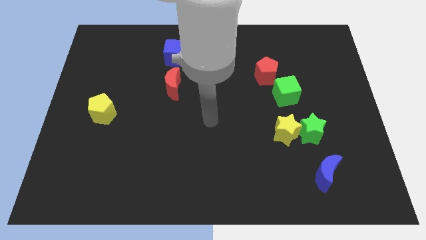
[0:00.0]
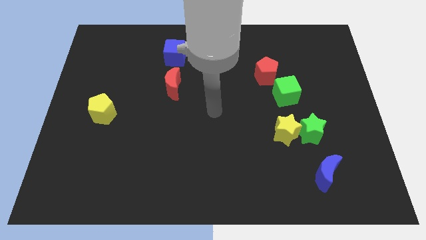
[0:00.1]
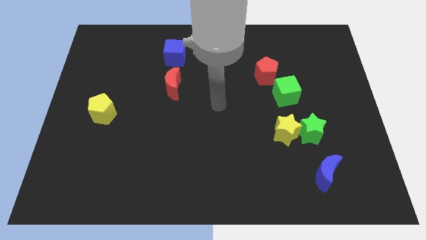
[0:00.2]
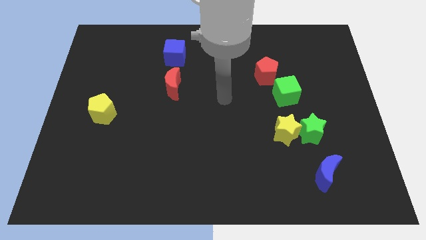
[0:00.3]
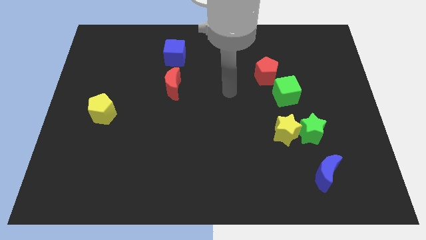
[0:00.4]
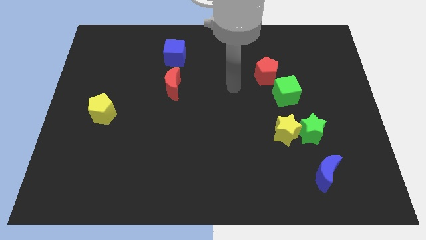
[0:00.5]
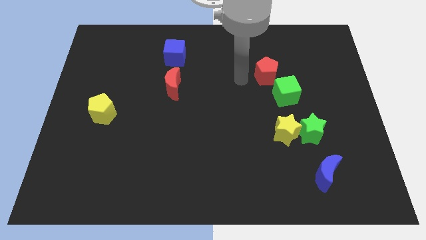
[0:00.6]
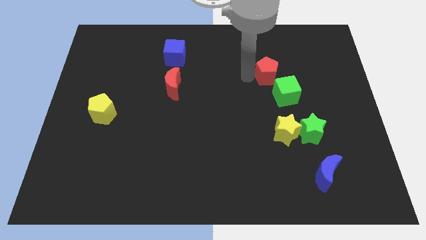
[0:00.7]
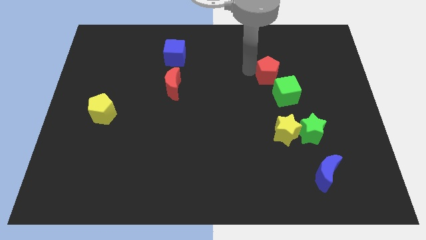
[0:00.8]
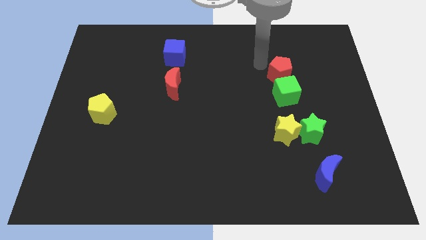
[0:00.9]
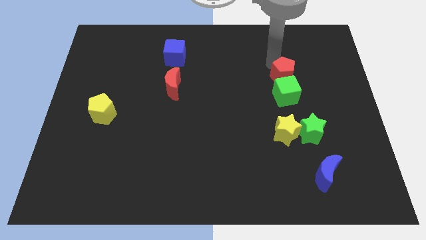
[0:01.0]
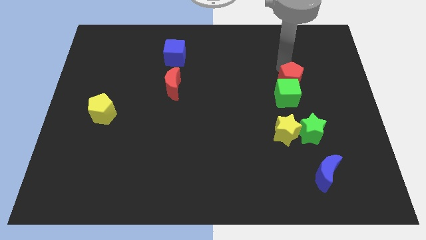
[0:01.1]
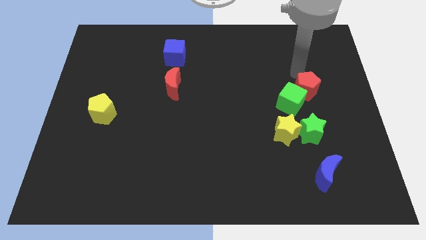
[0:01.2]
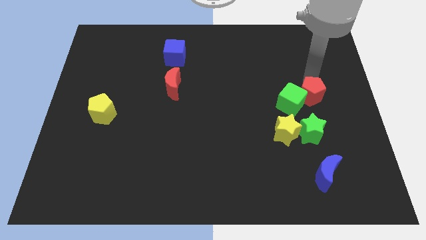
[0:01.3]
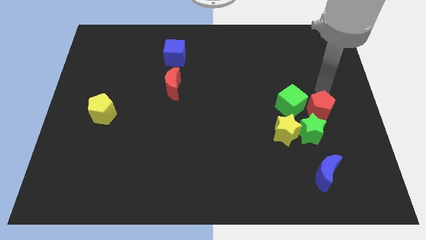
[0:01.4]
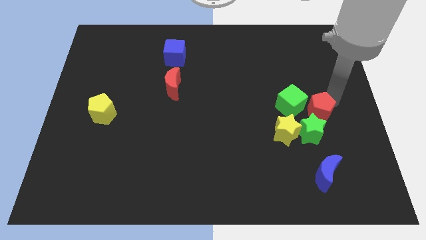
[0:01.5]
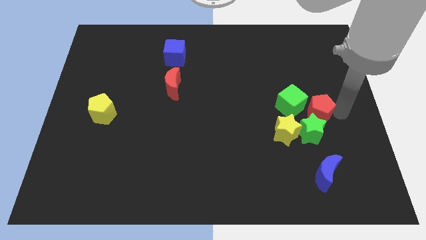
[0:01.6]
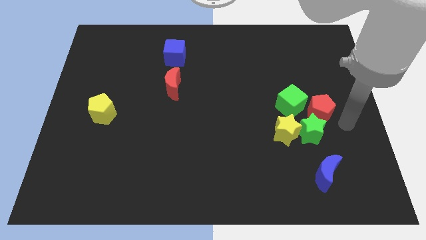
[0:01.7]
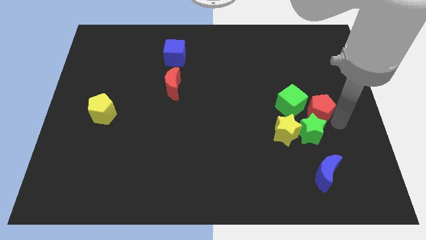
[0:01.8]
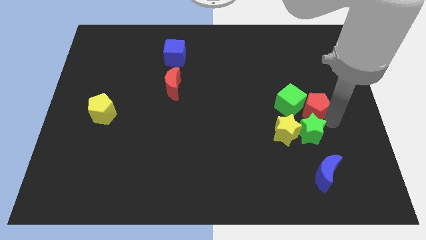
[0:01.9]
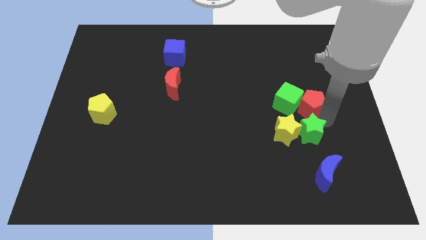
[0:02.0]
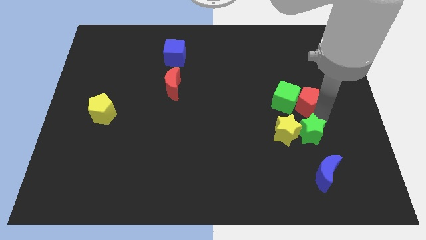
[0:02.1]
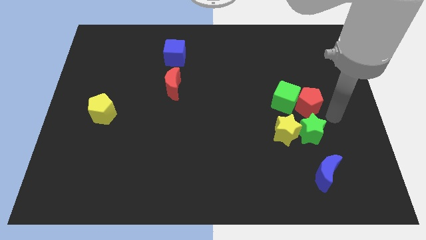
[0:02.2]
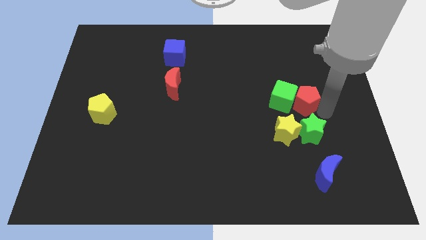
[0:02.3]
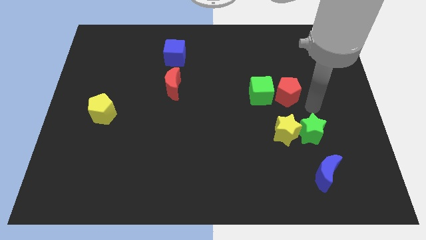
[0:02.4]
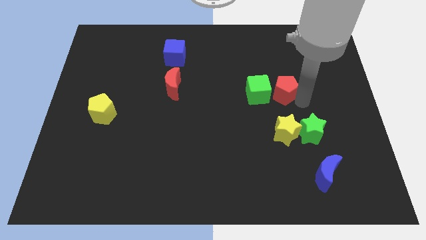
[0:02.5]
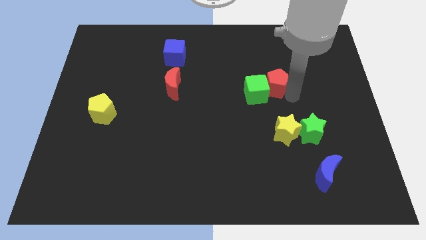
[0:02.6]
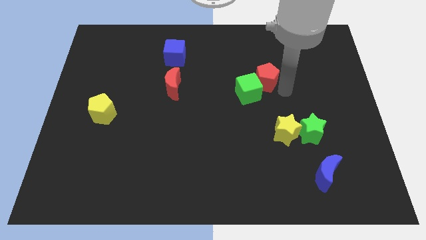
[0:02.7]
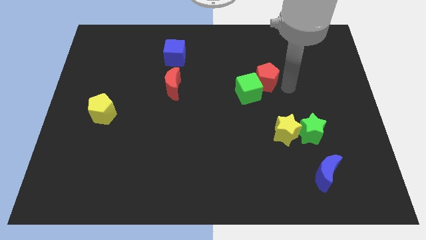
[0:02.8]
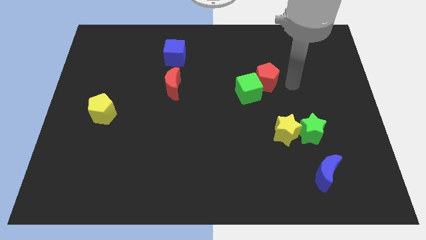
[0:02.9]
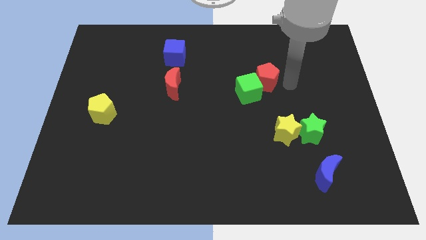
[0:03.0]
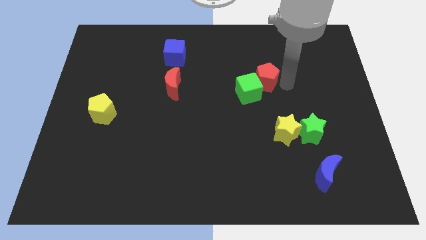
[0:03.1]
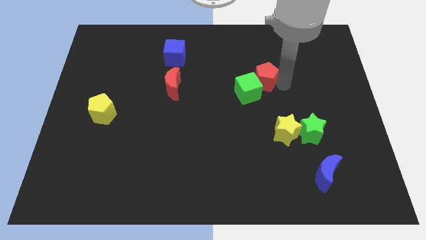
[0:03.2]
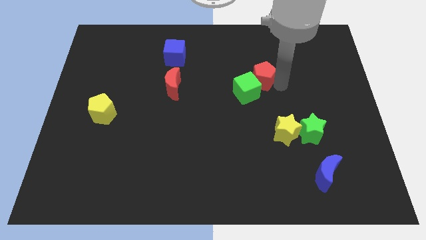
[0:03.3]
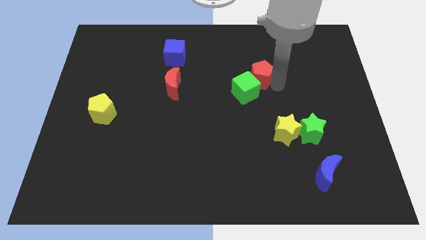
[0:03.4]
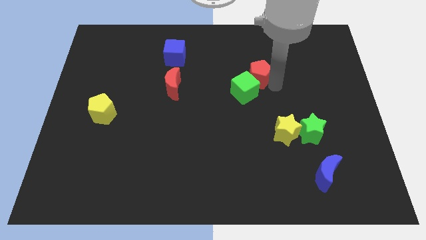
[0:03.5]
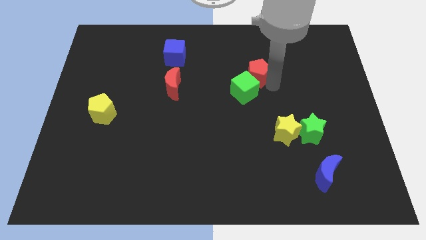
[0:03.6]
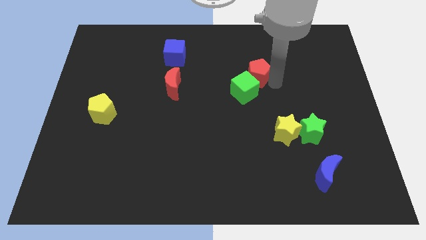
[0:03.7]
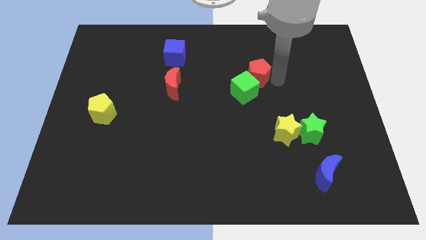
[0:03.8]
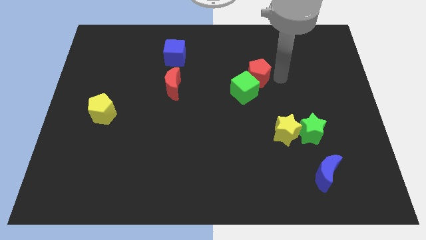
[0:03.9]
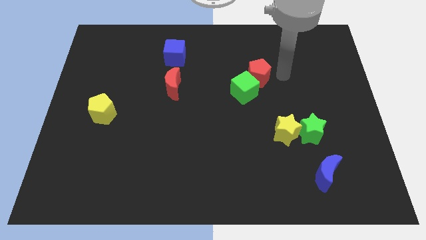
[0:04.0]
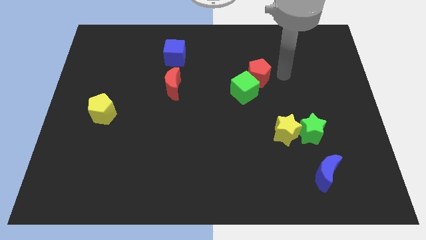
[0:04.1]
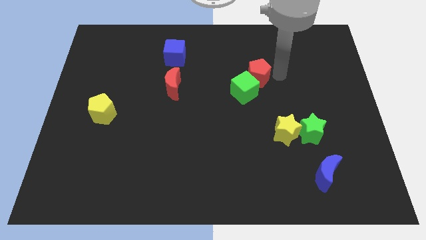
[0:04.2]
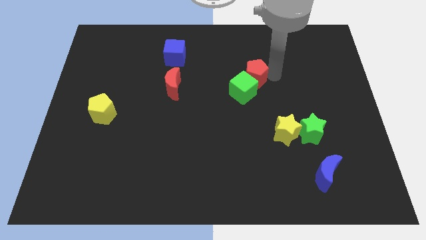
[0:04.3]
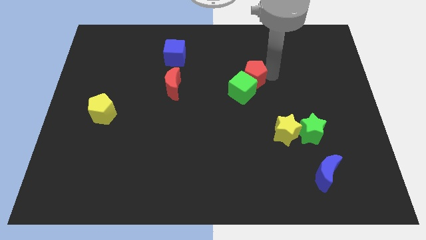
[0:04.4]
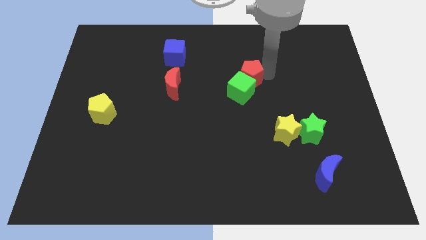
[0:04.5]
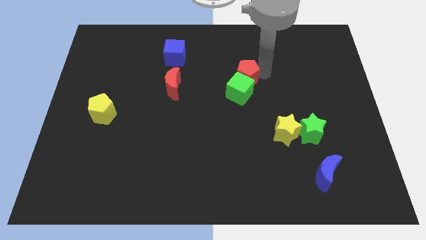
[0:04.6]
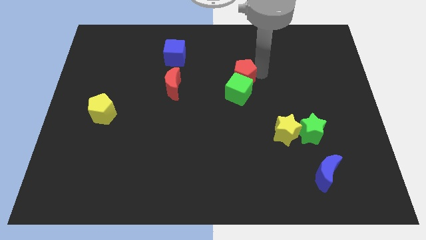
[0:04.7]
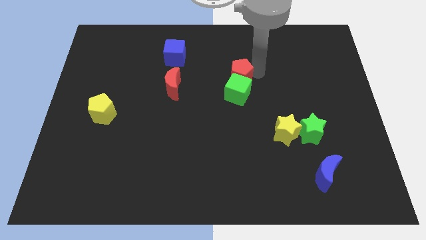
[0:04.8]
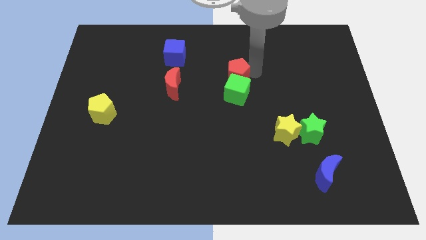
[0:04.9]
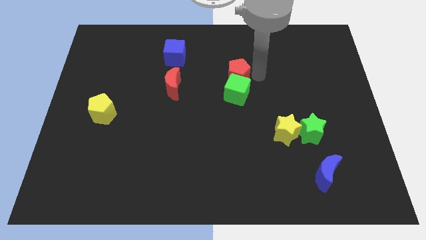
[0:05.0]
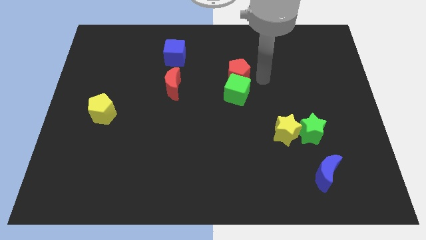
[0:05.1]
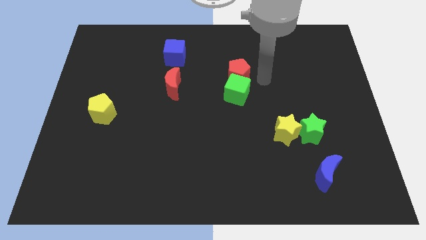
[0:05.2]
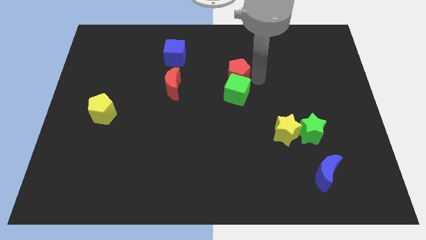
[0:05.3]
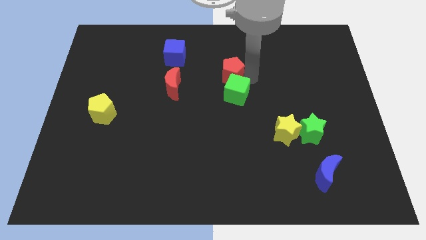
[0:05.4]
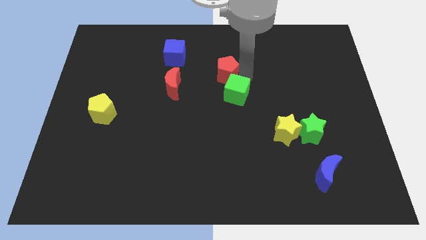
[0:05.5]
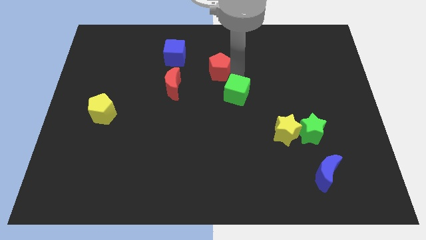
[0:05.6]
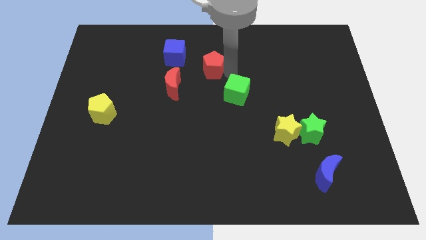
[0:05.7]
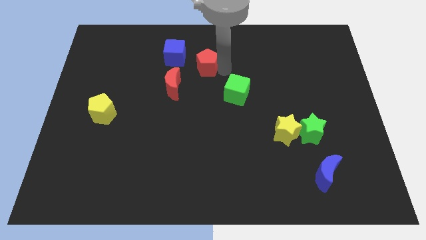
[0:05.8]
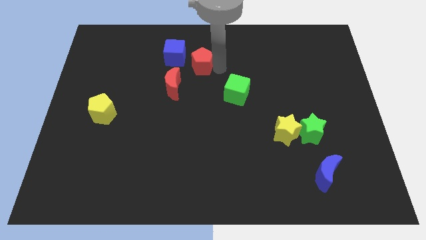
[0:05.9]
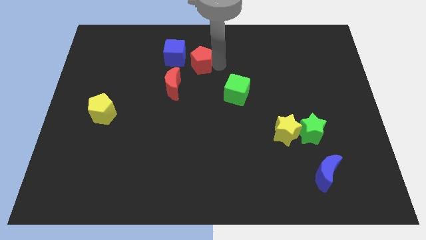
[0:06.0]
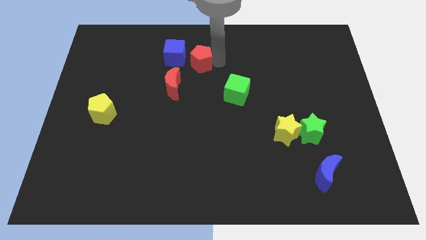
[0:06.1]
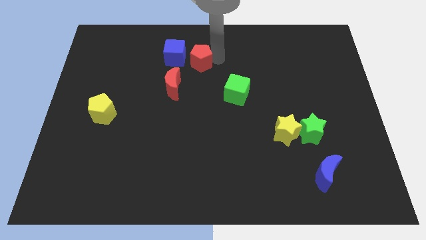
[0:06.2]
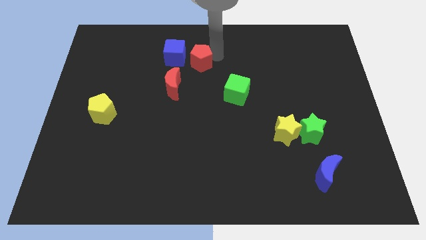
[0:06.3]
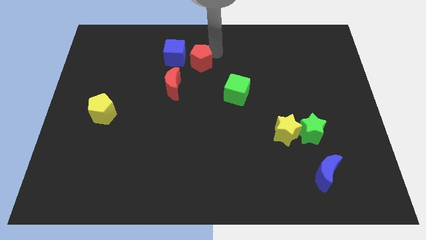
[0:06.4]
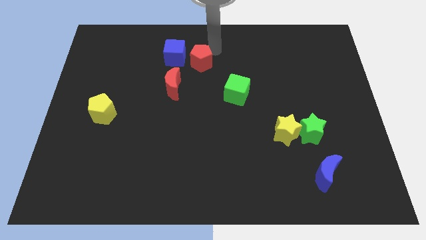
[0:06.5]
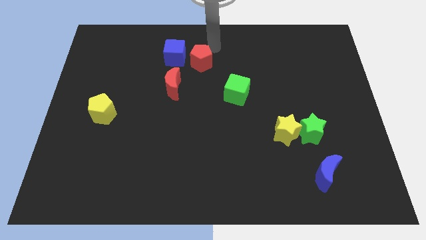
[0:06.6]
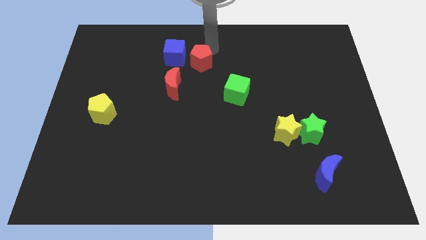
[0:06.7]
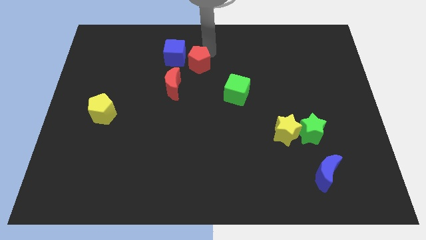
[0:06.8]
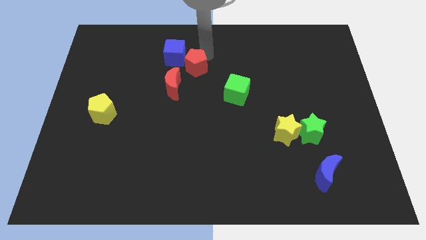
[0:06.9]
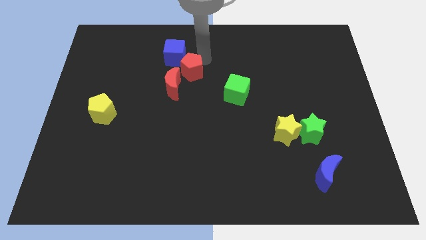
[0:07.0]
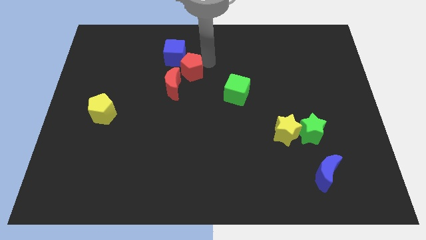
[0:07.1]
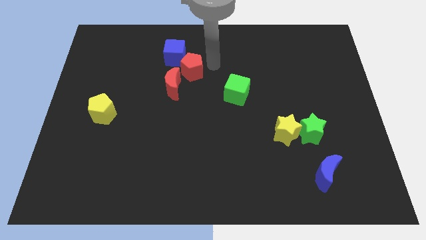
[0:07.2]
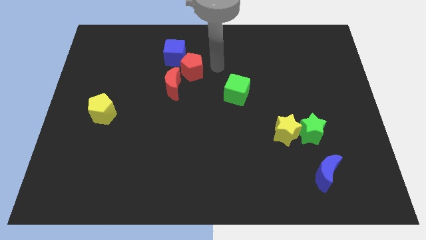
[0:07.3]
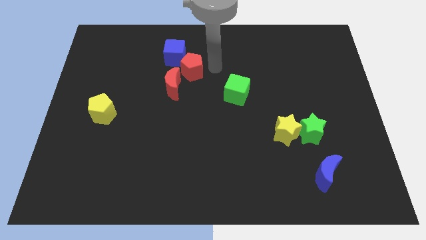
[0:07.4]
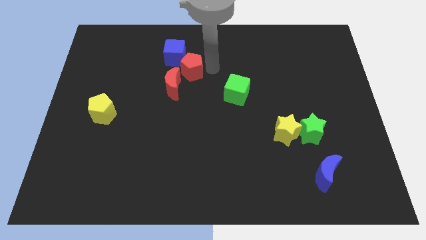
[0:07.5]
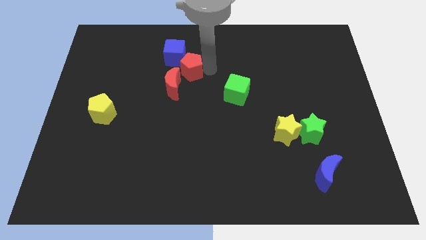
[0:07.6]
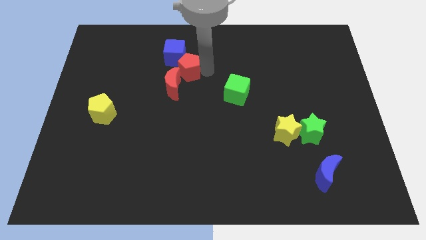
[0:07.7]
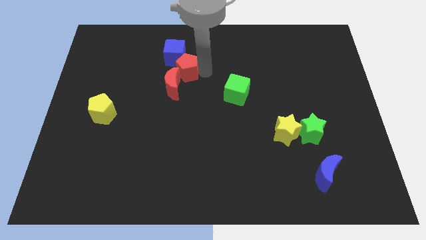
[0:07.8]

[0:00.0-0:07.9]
push the red pentagon left

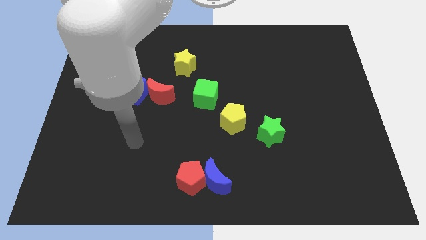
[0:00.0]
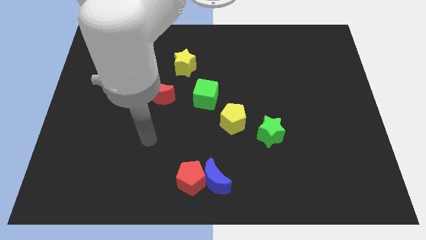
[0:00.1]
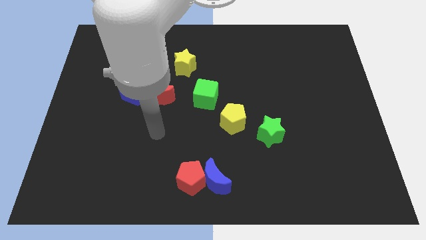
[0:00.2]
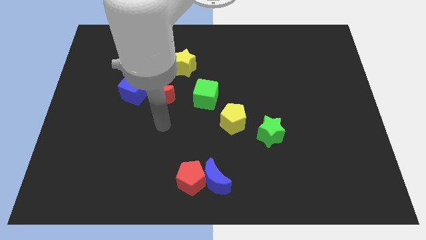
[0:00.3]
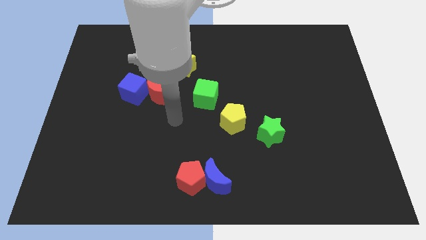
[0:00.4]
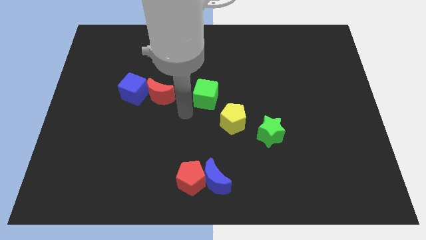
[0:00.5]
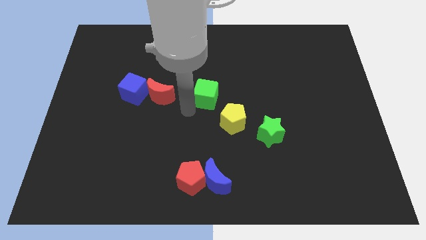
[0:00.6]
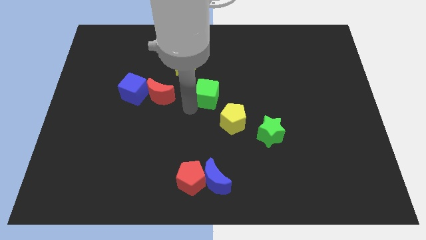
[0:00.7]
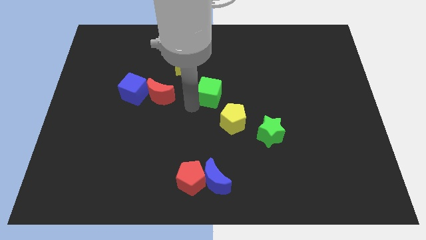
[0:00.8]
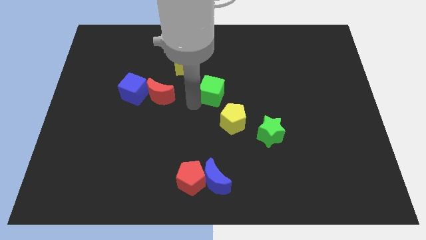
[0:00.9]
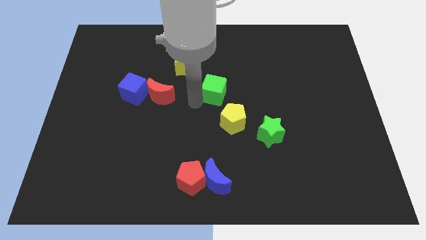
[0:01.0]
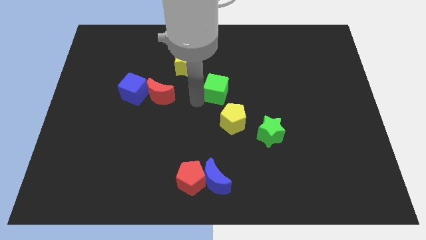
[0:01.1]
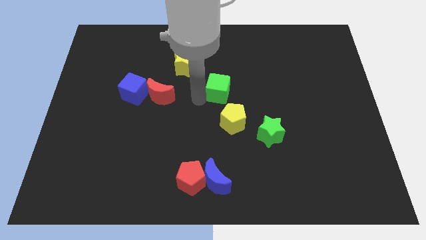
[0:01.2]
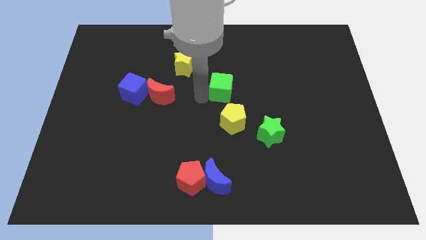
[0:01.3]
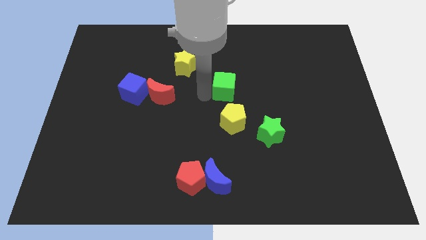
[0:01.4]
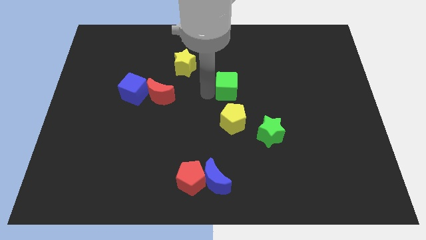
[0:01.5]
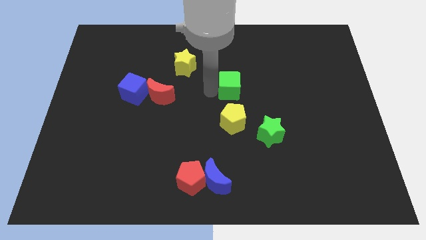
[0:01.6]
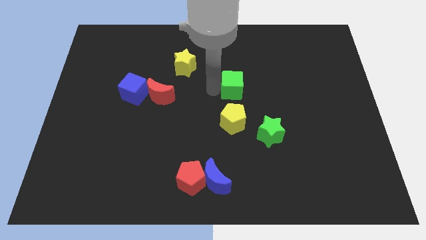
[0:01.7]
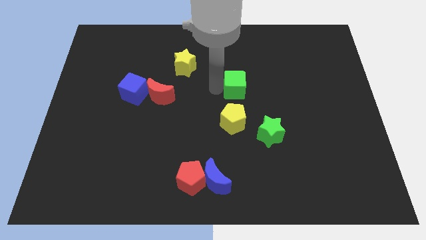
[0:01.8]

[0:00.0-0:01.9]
slide the green cube up and then right slightly
